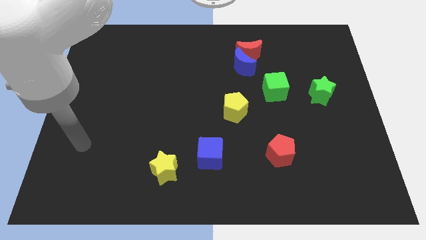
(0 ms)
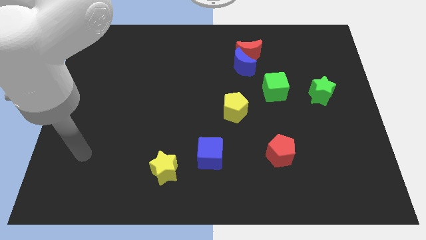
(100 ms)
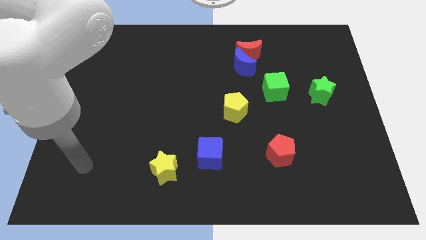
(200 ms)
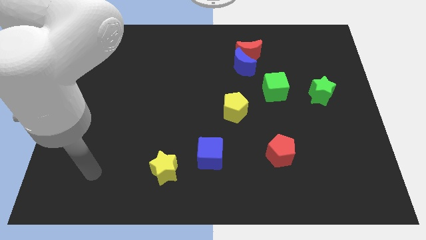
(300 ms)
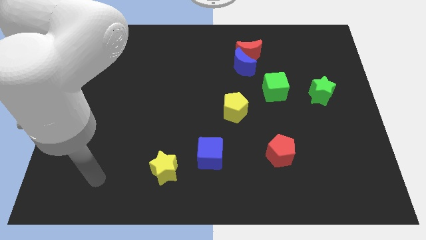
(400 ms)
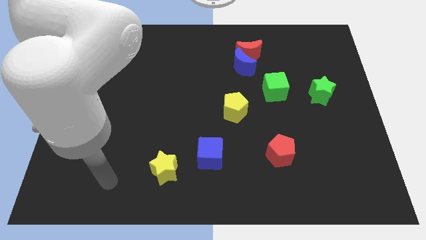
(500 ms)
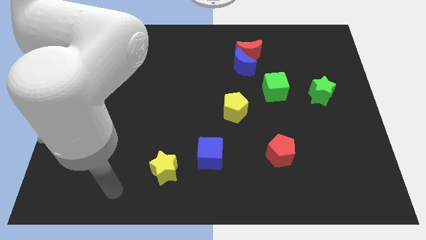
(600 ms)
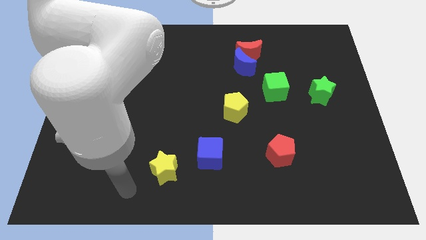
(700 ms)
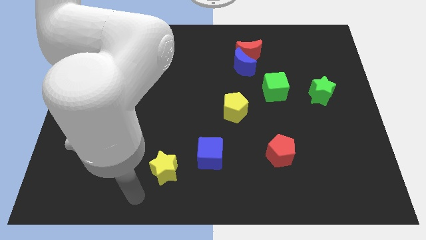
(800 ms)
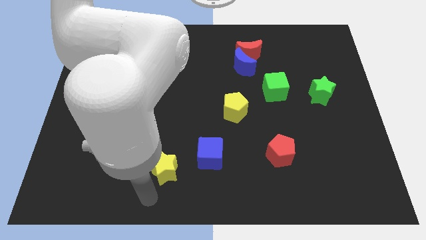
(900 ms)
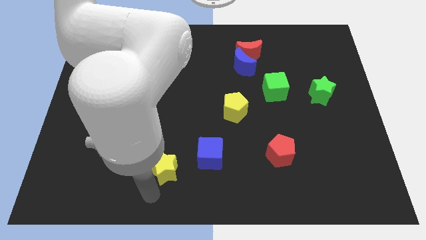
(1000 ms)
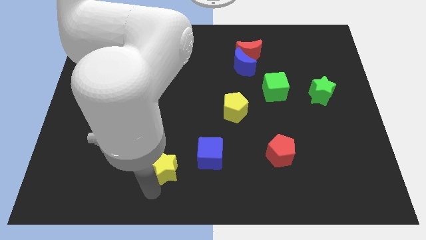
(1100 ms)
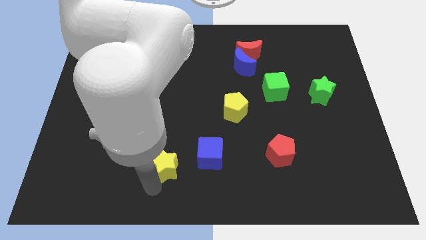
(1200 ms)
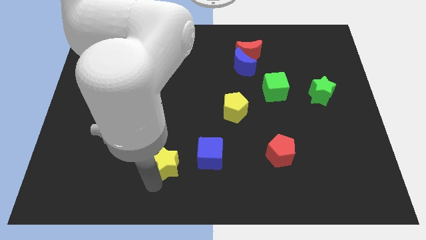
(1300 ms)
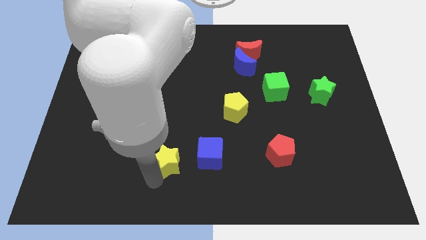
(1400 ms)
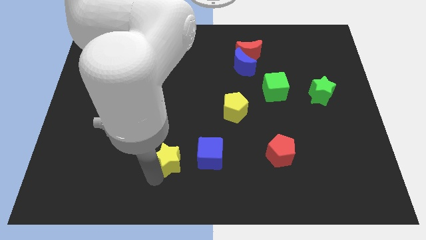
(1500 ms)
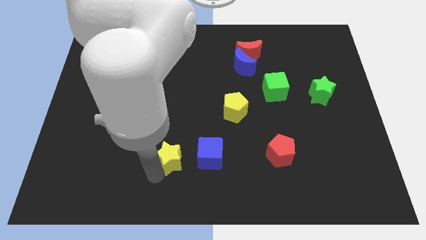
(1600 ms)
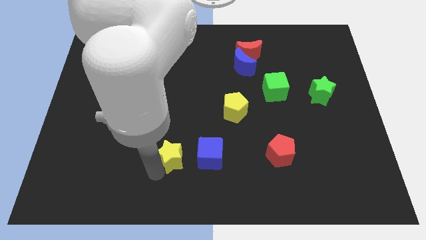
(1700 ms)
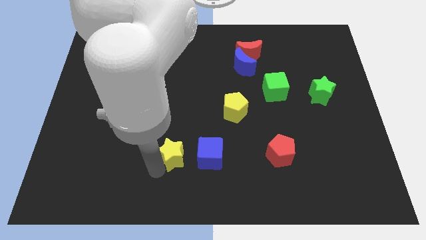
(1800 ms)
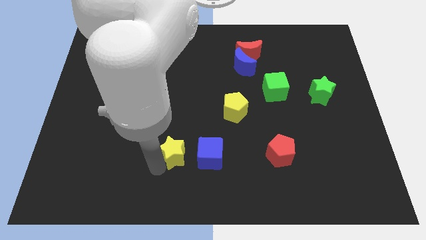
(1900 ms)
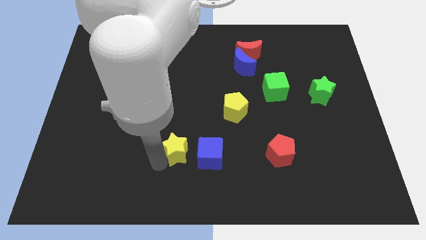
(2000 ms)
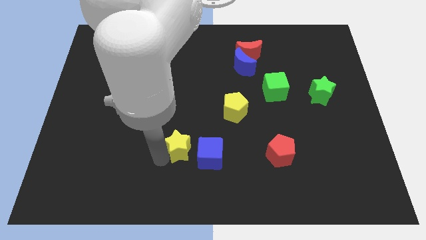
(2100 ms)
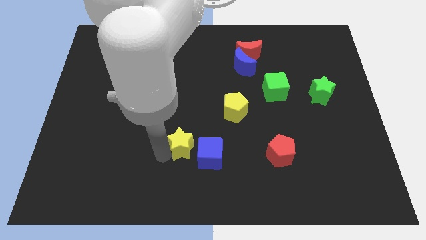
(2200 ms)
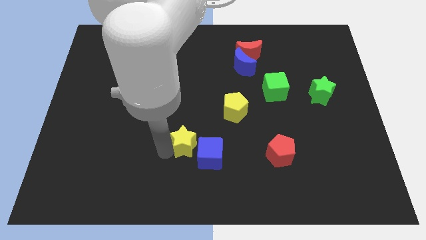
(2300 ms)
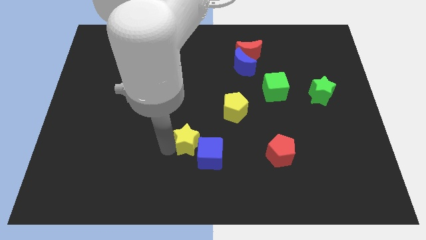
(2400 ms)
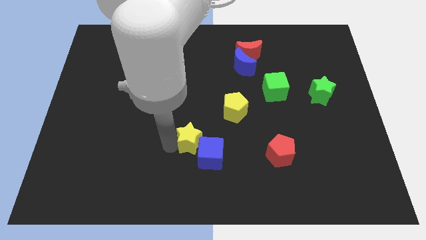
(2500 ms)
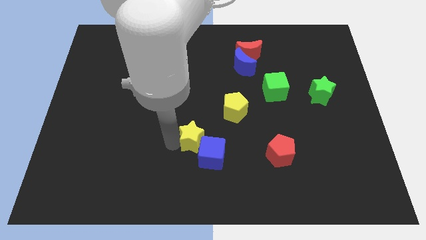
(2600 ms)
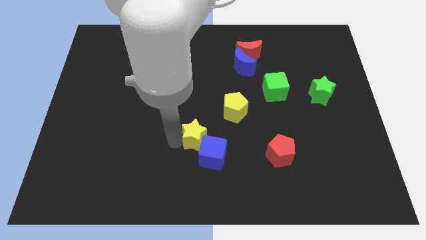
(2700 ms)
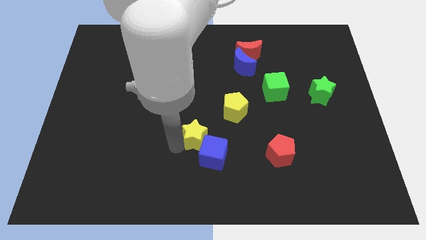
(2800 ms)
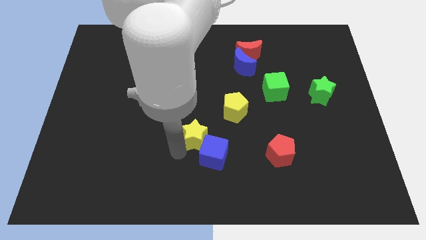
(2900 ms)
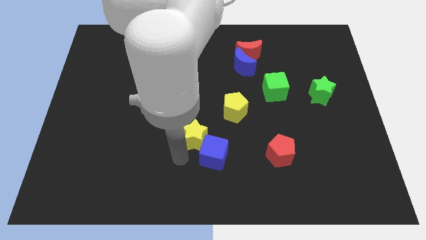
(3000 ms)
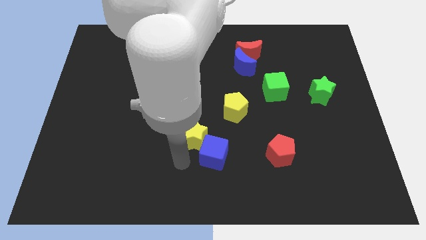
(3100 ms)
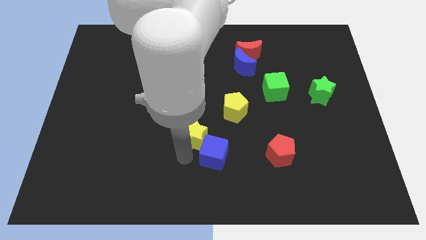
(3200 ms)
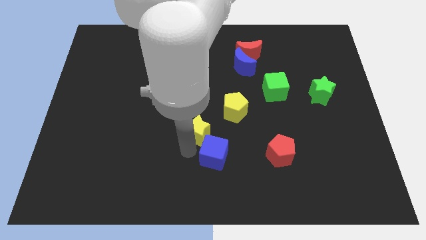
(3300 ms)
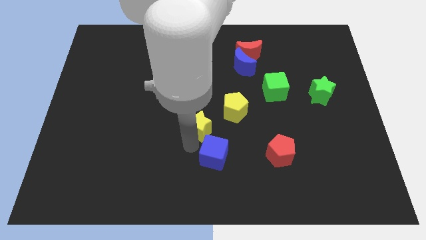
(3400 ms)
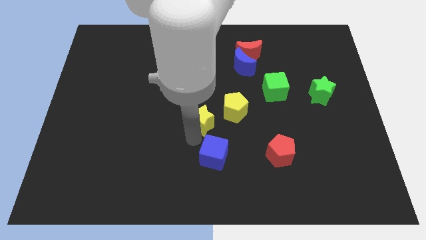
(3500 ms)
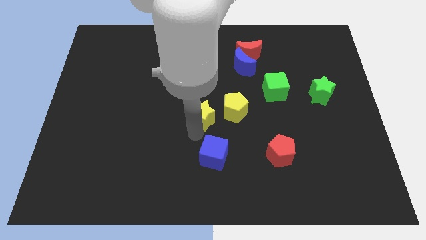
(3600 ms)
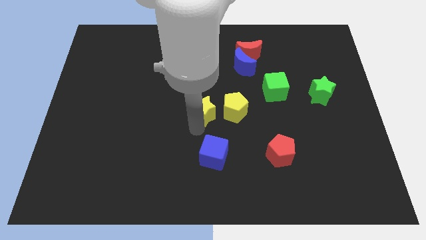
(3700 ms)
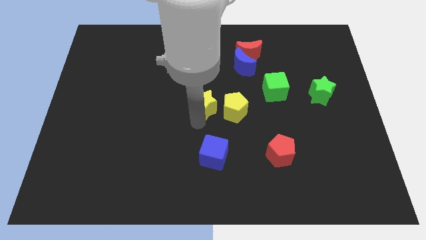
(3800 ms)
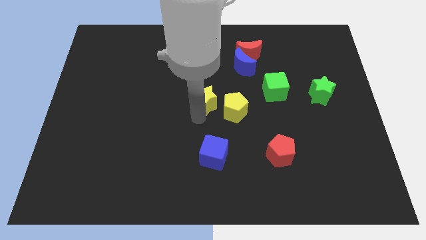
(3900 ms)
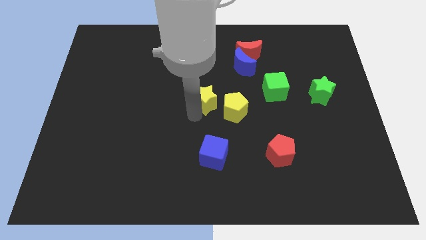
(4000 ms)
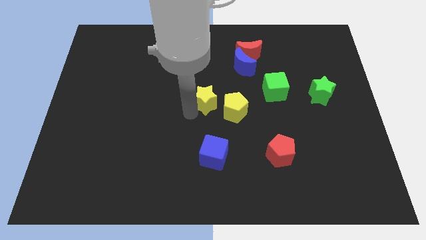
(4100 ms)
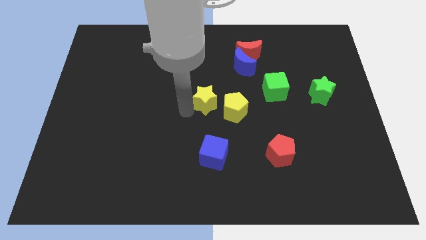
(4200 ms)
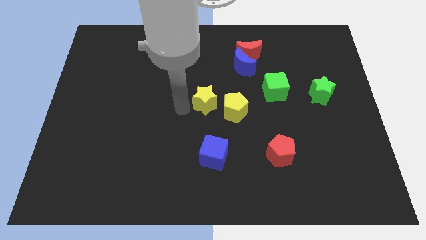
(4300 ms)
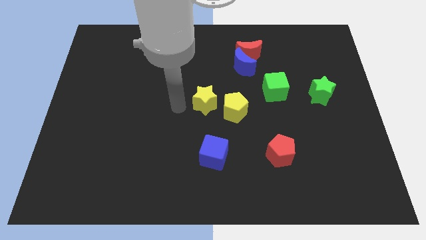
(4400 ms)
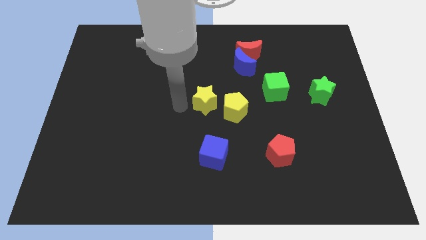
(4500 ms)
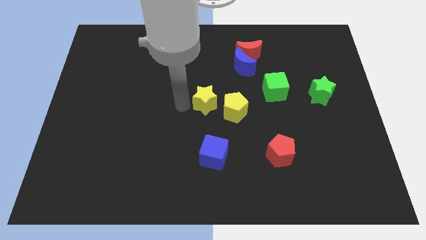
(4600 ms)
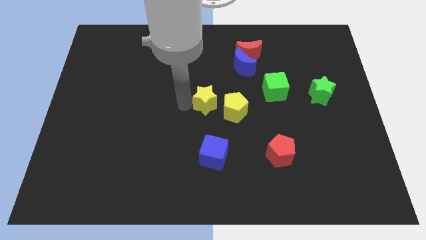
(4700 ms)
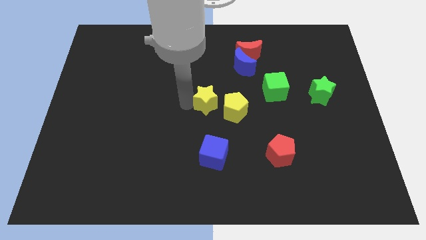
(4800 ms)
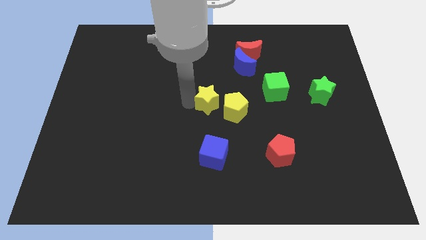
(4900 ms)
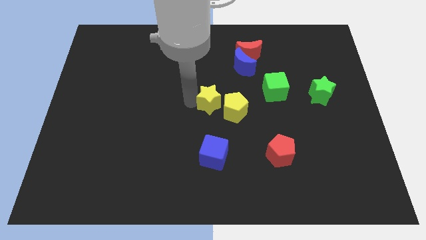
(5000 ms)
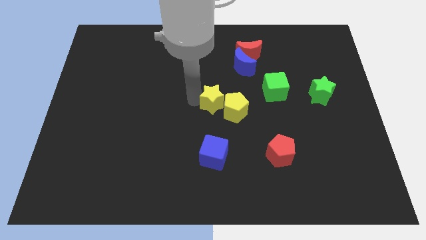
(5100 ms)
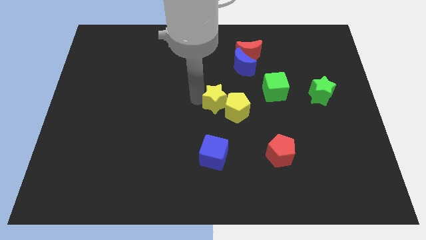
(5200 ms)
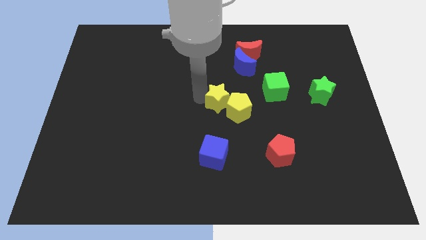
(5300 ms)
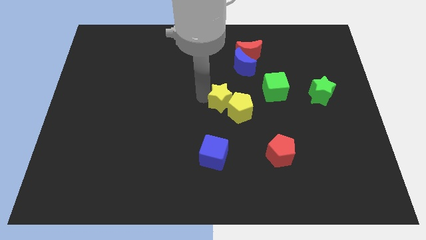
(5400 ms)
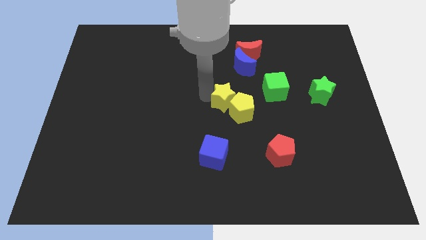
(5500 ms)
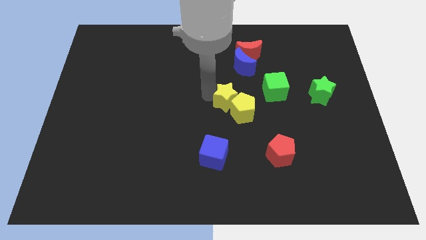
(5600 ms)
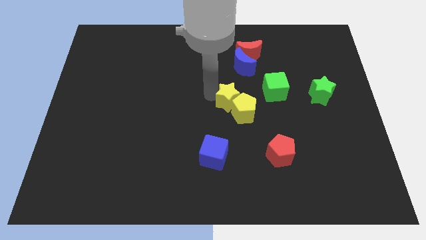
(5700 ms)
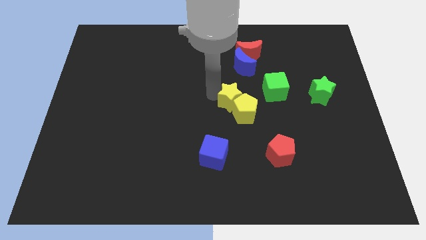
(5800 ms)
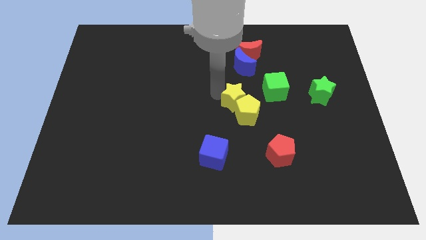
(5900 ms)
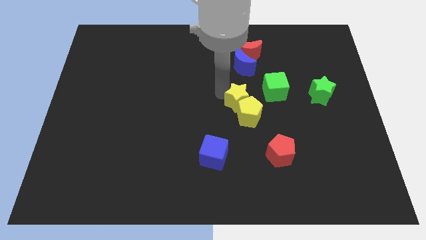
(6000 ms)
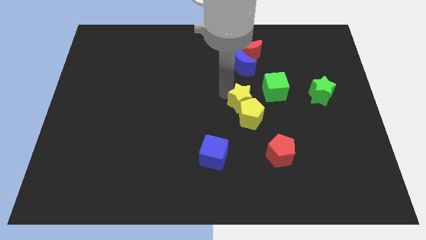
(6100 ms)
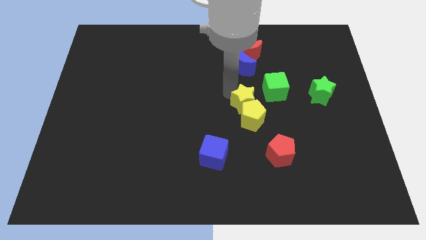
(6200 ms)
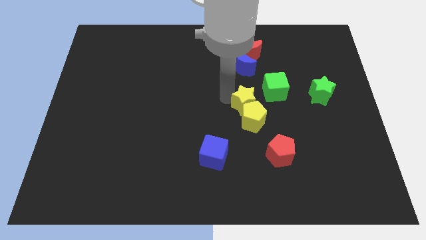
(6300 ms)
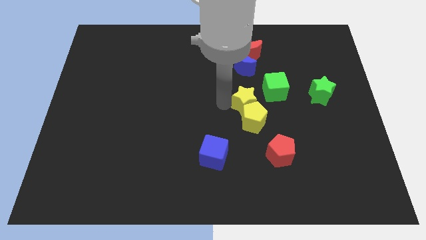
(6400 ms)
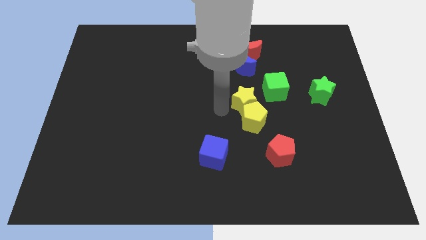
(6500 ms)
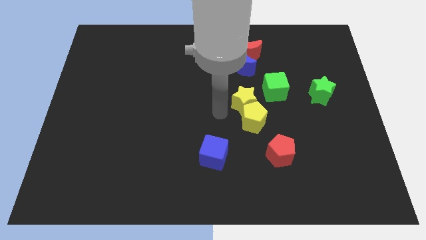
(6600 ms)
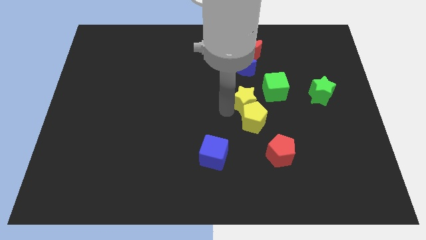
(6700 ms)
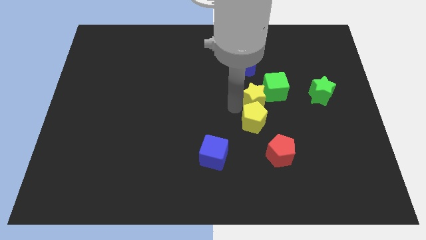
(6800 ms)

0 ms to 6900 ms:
move the yellow star towards the green cube

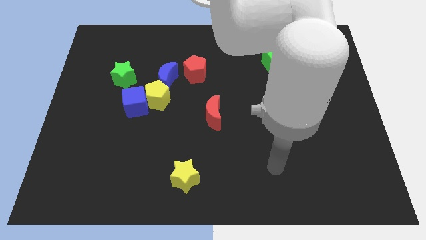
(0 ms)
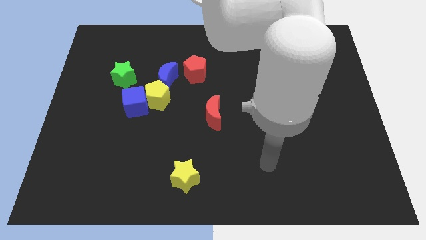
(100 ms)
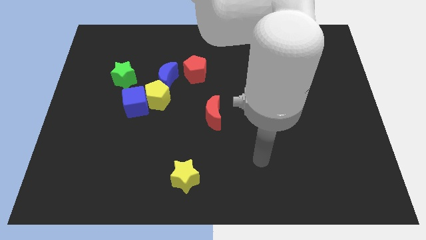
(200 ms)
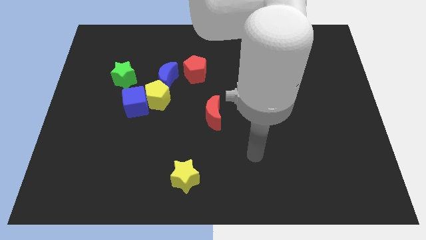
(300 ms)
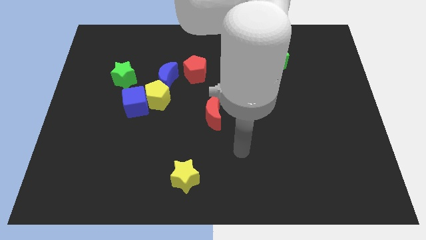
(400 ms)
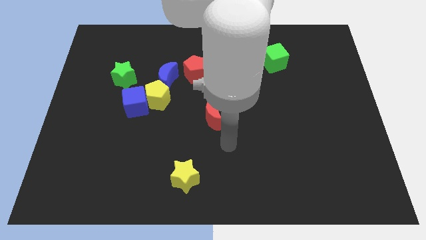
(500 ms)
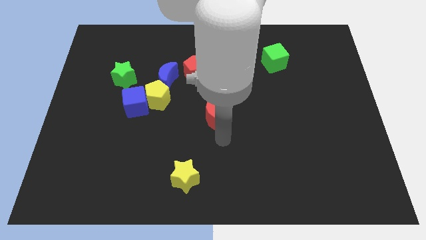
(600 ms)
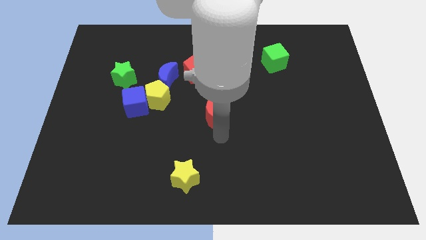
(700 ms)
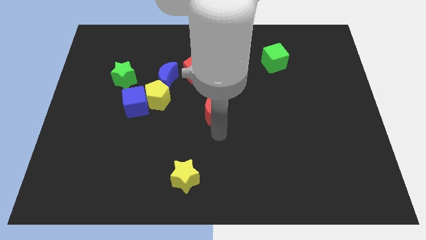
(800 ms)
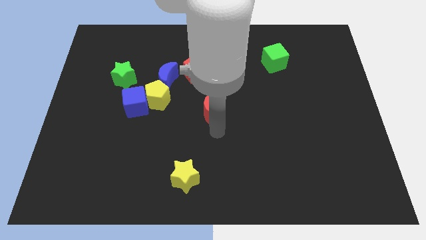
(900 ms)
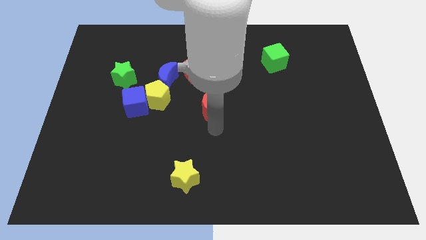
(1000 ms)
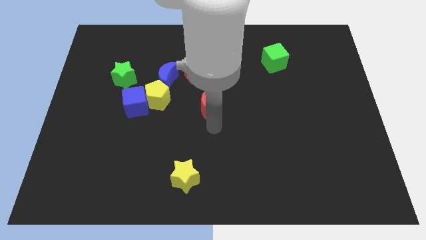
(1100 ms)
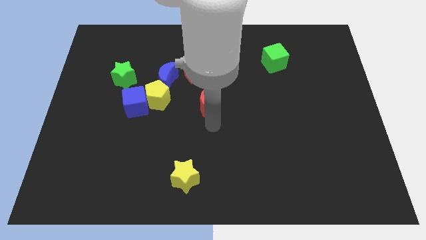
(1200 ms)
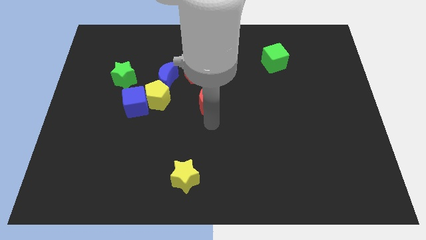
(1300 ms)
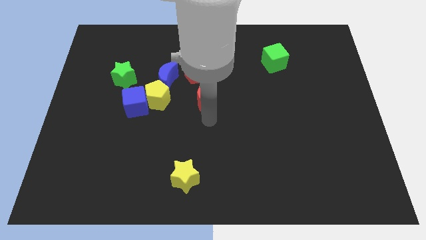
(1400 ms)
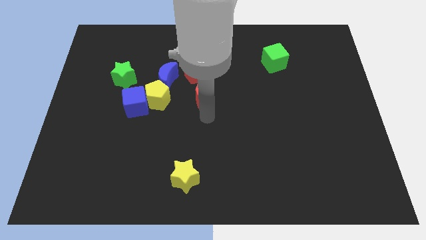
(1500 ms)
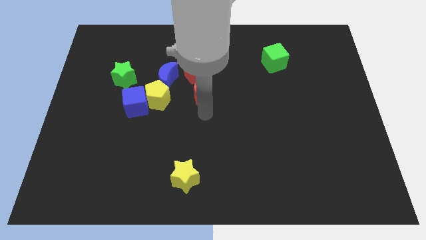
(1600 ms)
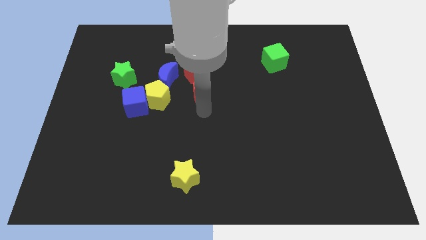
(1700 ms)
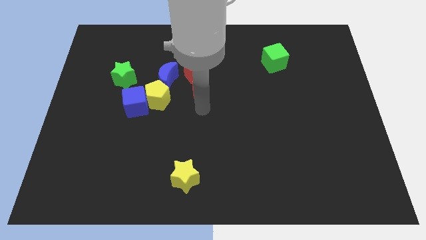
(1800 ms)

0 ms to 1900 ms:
slide the red moon to the red pentagon
